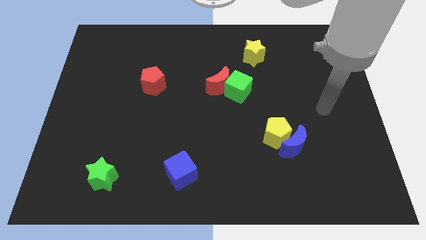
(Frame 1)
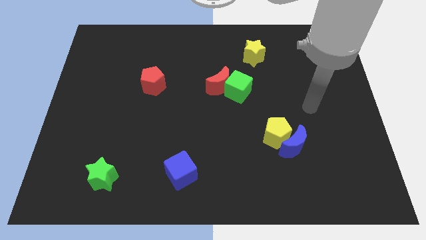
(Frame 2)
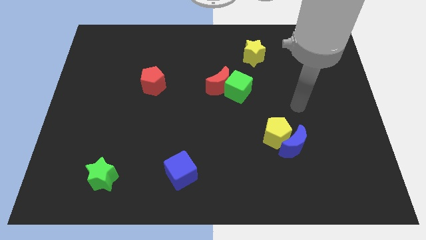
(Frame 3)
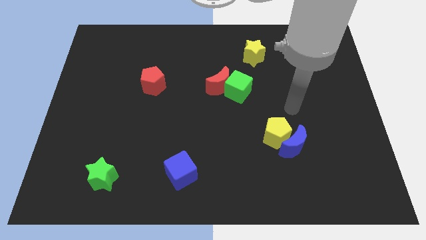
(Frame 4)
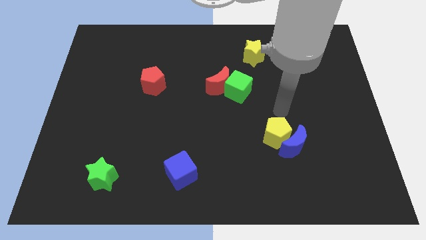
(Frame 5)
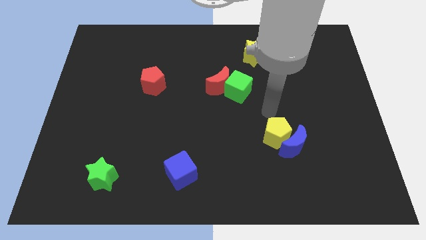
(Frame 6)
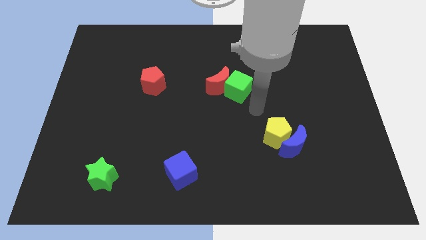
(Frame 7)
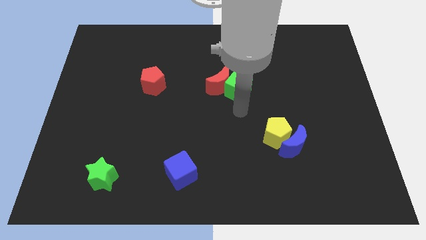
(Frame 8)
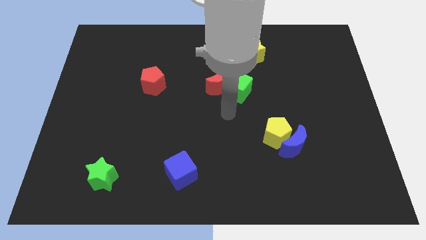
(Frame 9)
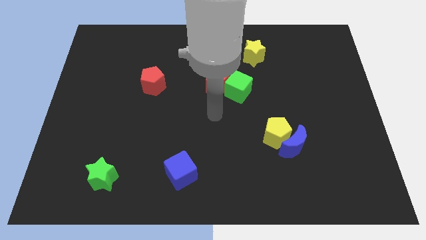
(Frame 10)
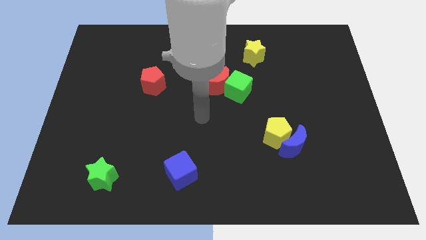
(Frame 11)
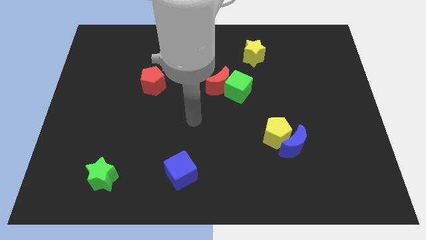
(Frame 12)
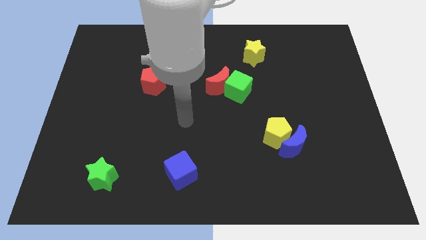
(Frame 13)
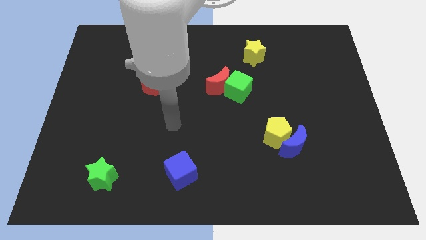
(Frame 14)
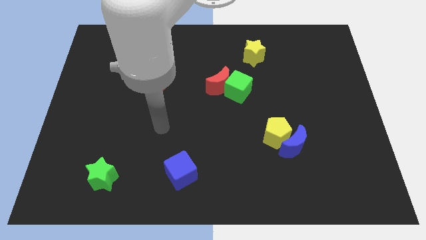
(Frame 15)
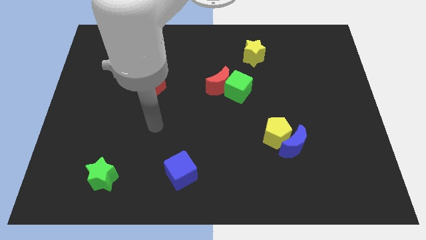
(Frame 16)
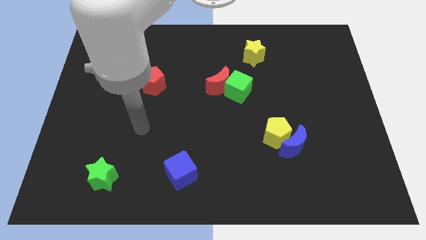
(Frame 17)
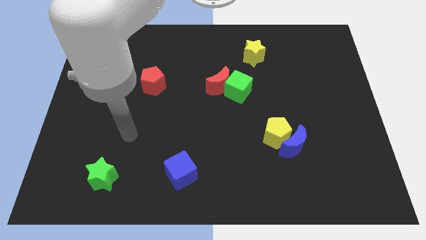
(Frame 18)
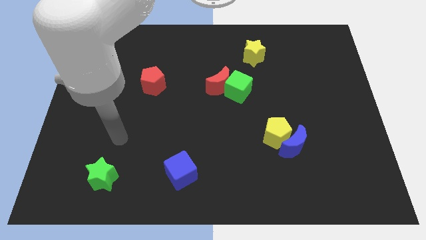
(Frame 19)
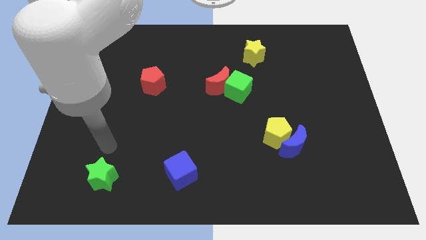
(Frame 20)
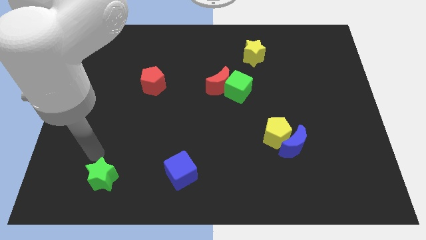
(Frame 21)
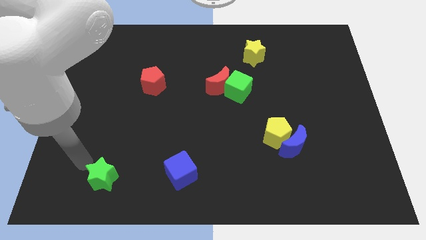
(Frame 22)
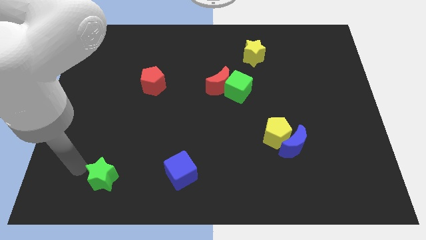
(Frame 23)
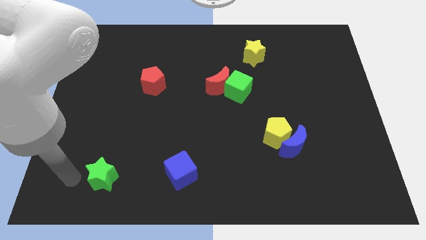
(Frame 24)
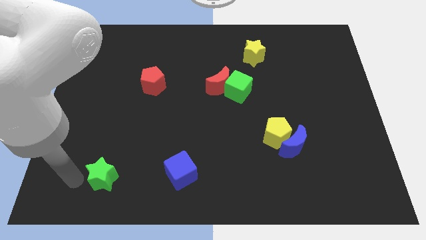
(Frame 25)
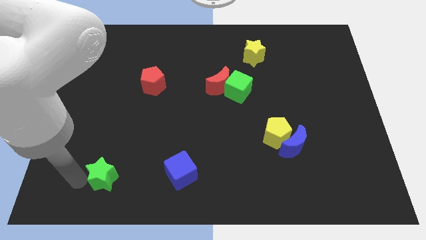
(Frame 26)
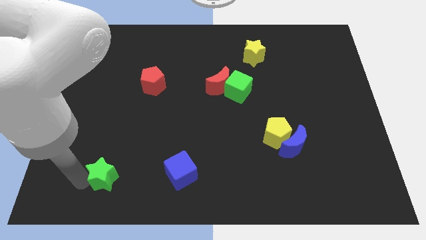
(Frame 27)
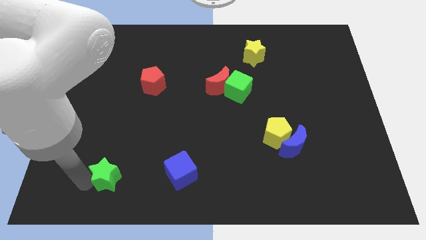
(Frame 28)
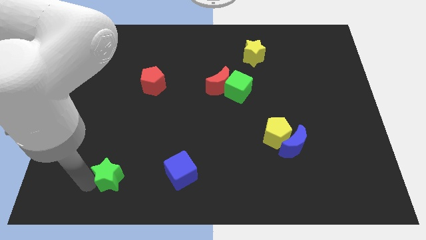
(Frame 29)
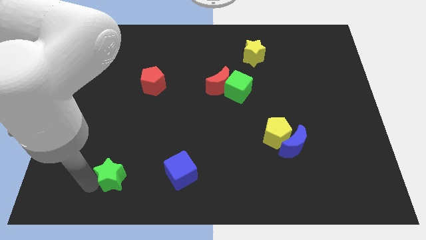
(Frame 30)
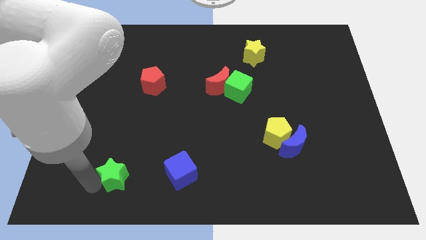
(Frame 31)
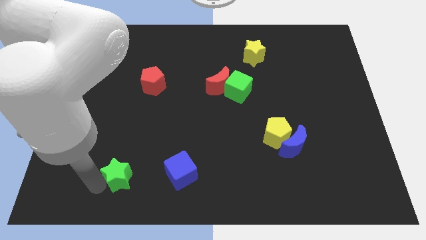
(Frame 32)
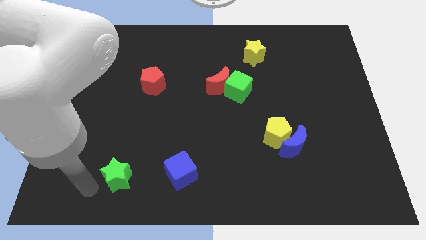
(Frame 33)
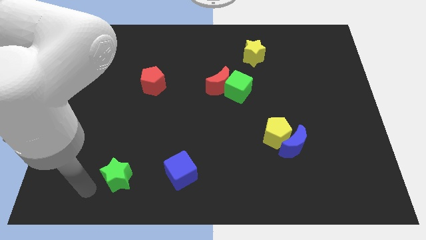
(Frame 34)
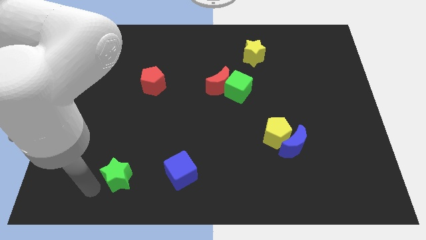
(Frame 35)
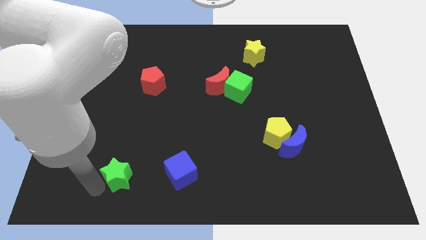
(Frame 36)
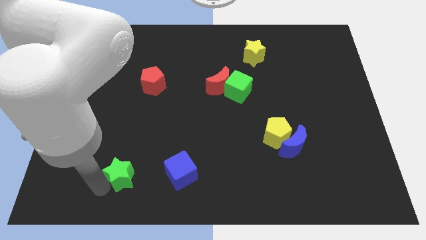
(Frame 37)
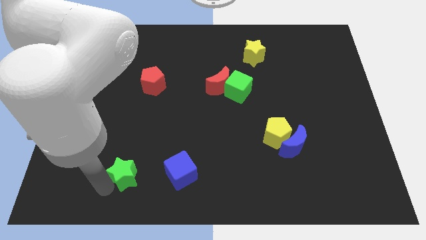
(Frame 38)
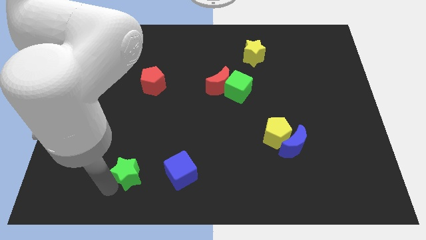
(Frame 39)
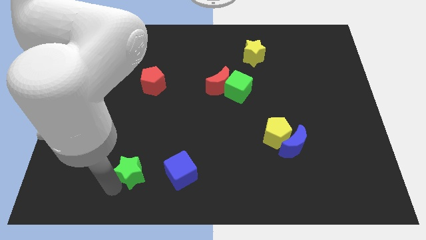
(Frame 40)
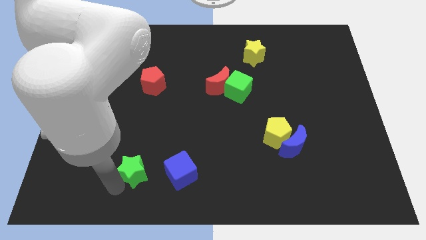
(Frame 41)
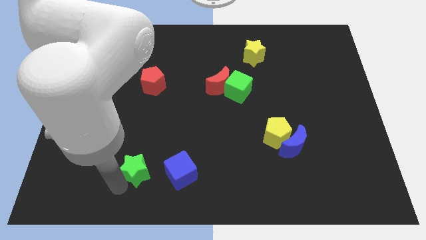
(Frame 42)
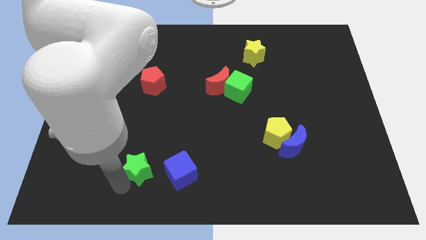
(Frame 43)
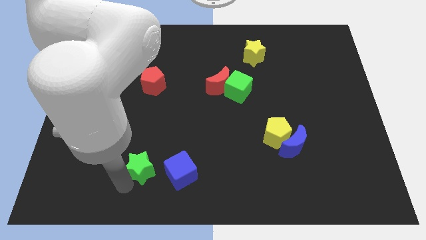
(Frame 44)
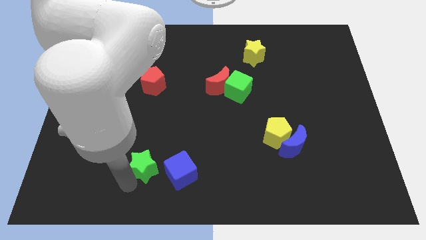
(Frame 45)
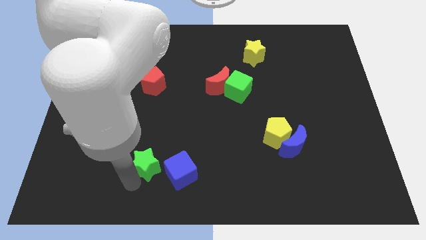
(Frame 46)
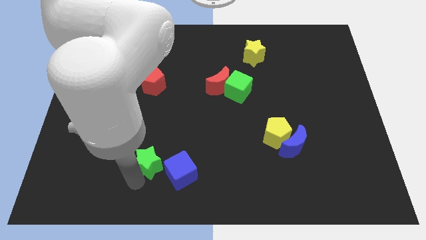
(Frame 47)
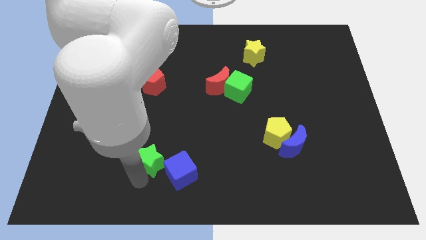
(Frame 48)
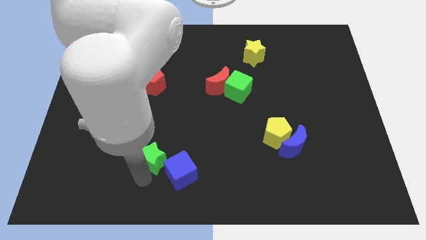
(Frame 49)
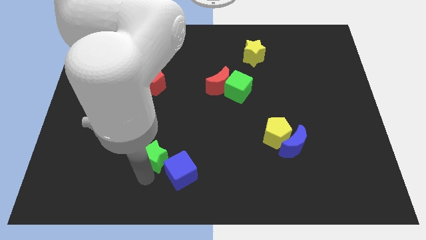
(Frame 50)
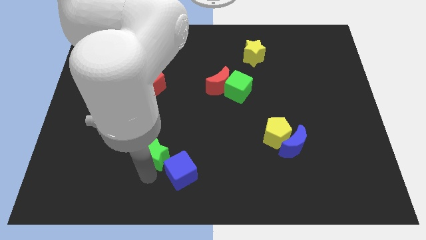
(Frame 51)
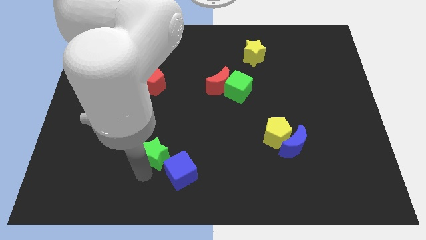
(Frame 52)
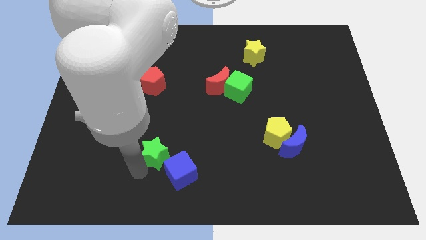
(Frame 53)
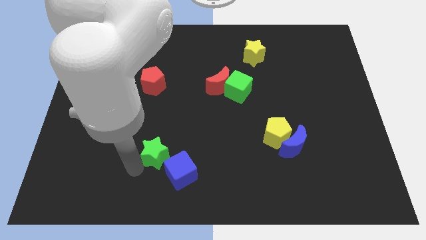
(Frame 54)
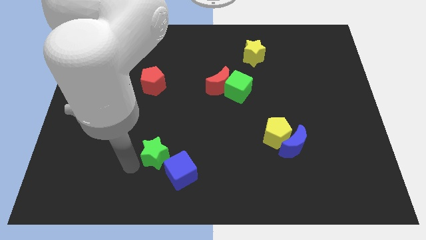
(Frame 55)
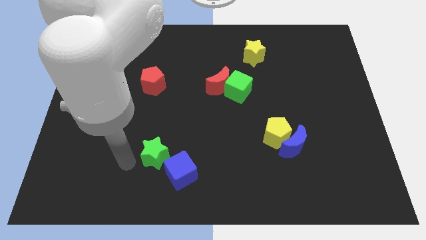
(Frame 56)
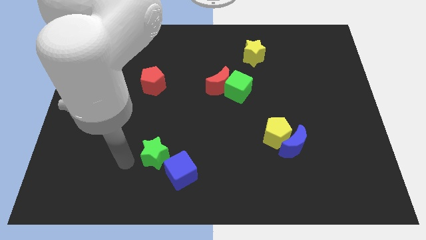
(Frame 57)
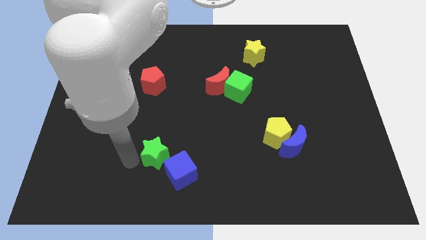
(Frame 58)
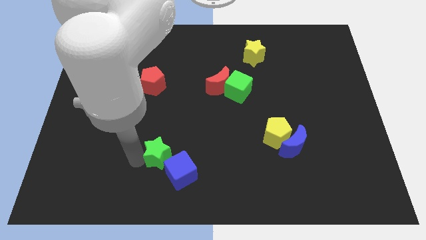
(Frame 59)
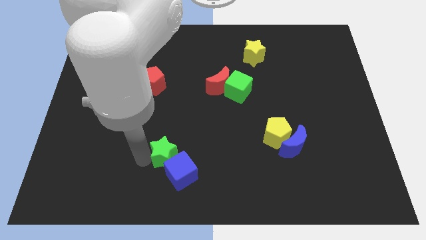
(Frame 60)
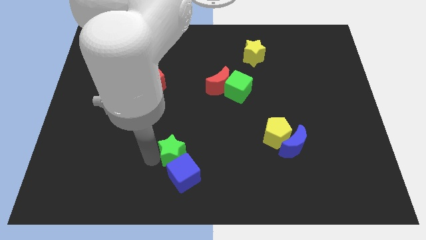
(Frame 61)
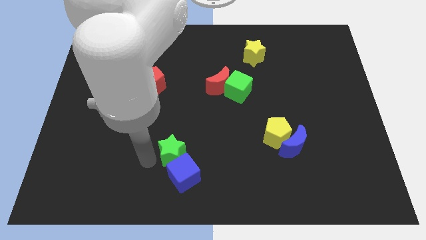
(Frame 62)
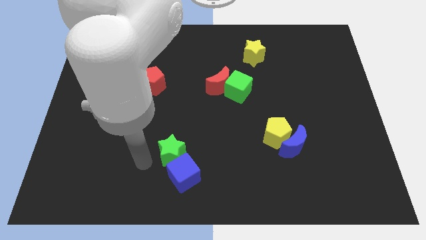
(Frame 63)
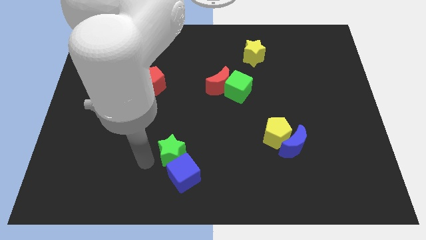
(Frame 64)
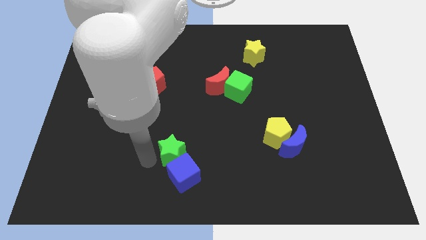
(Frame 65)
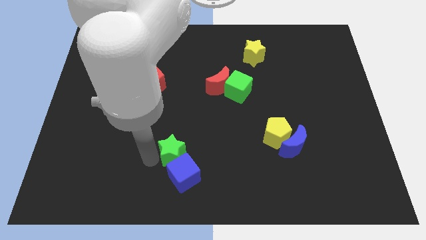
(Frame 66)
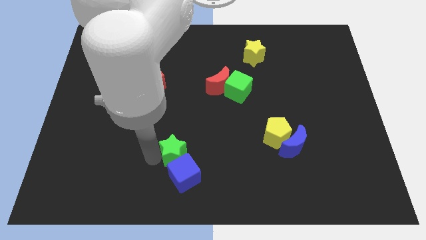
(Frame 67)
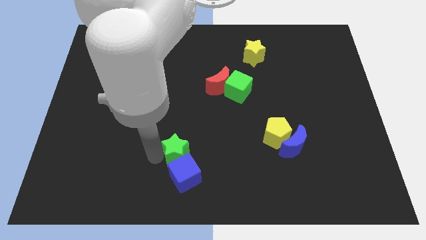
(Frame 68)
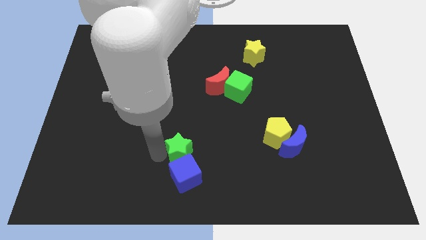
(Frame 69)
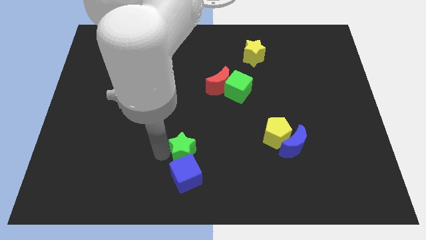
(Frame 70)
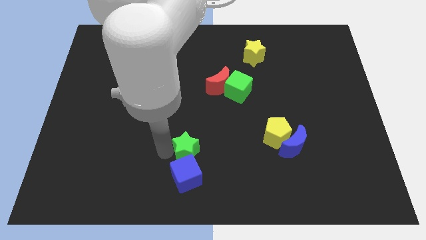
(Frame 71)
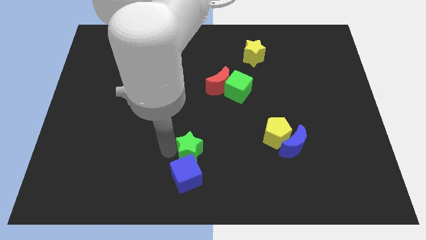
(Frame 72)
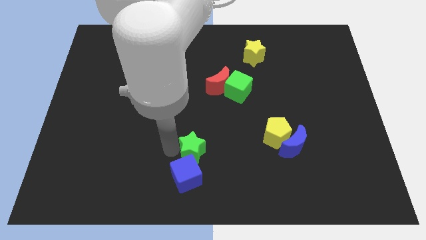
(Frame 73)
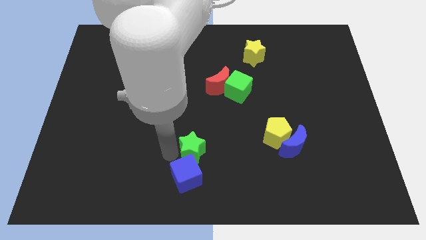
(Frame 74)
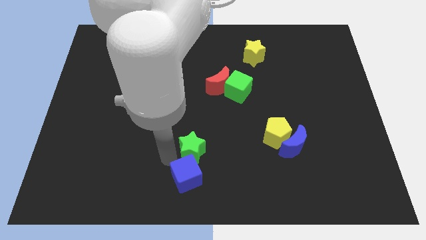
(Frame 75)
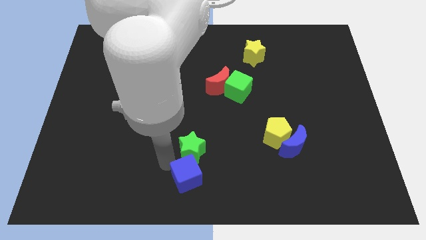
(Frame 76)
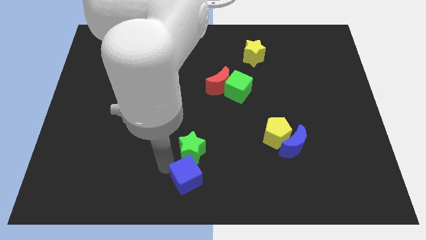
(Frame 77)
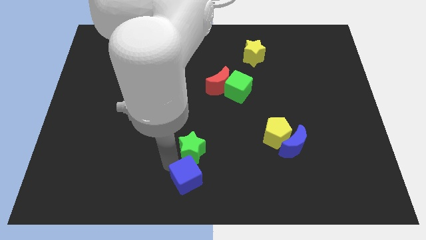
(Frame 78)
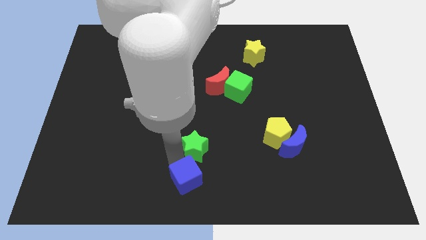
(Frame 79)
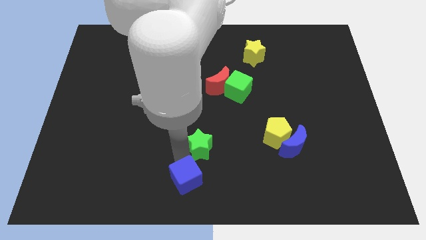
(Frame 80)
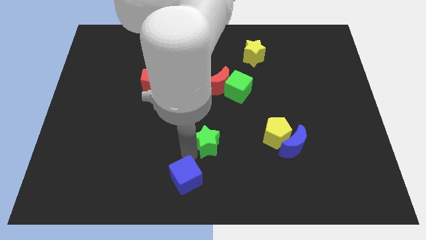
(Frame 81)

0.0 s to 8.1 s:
slide the green star to the left of the yellow pentagon
